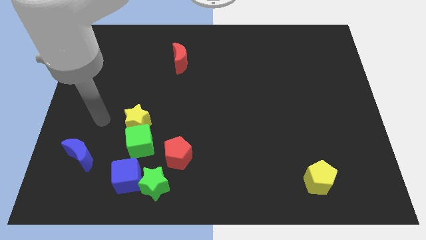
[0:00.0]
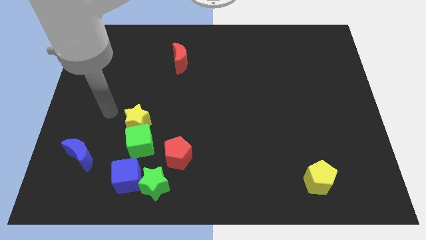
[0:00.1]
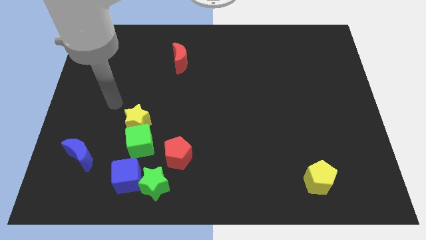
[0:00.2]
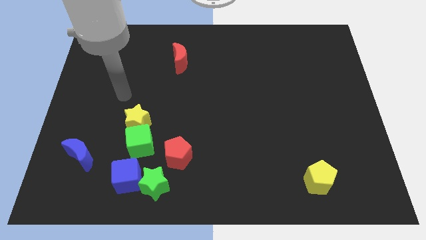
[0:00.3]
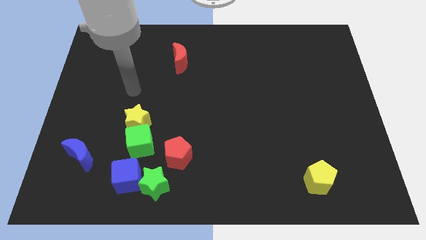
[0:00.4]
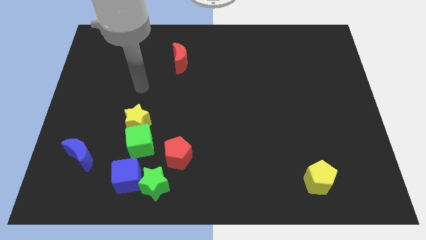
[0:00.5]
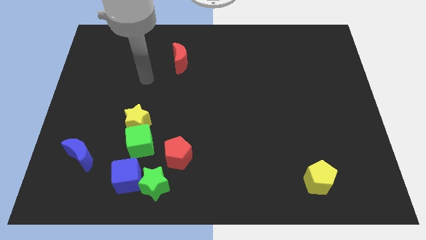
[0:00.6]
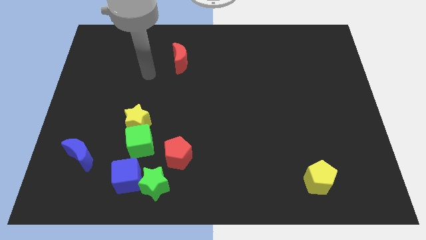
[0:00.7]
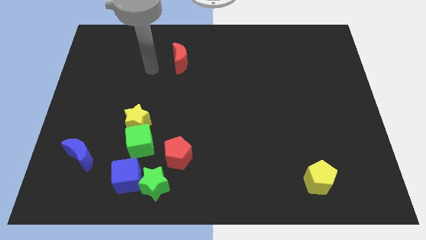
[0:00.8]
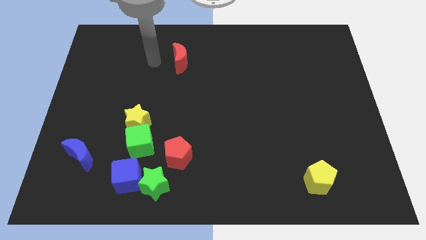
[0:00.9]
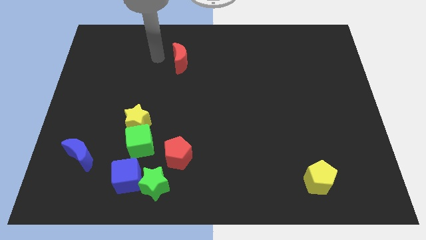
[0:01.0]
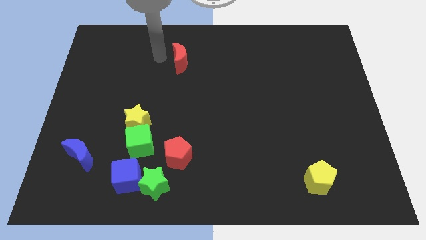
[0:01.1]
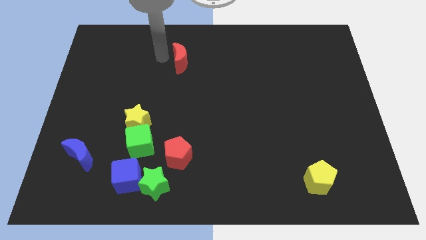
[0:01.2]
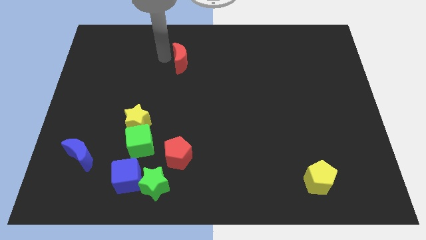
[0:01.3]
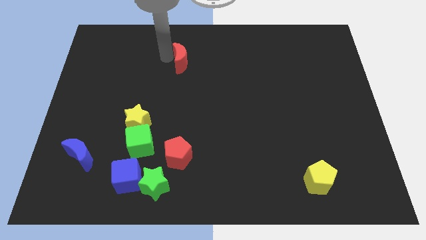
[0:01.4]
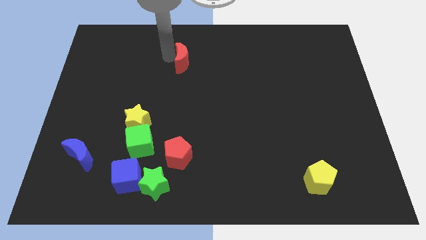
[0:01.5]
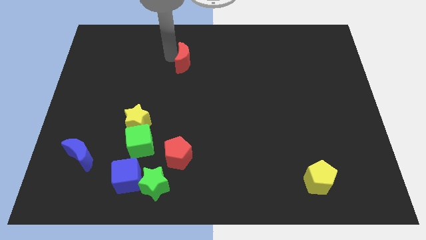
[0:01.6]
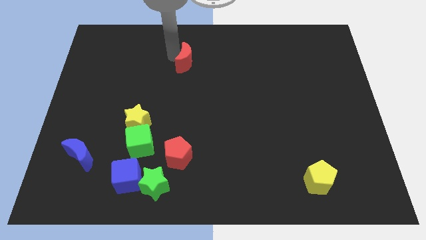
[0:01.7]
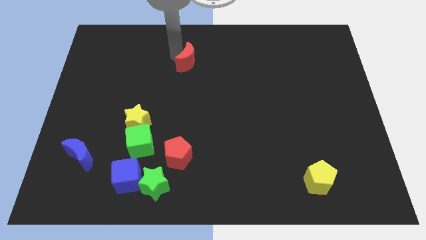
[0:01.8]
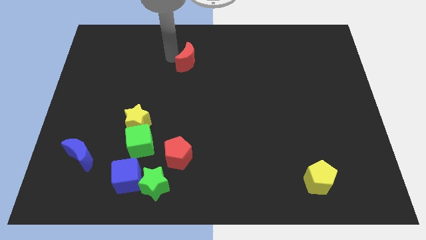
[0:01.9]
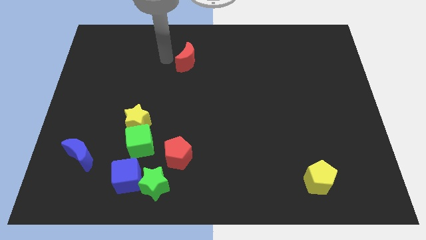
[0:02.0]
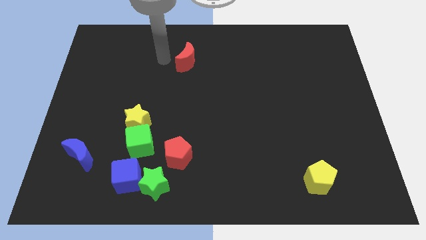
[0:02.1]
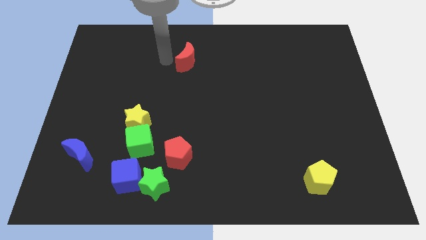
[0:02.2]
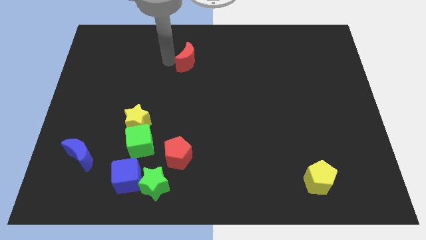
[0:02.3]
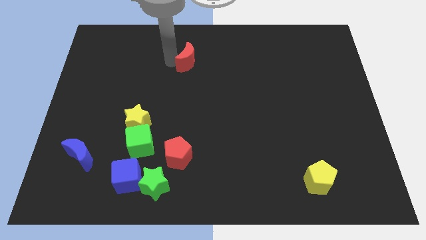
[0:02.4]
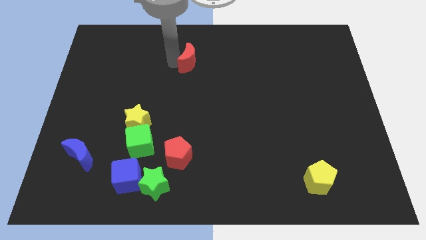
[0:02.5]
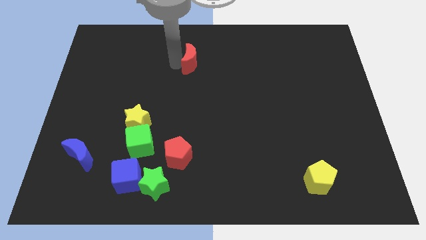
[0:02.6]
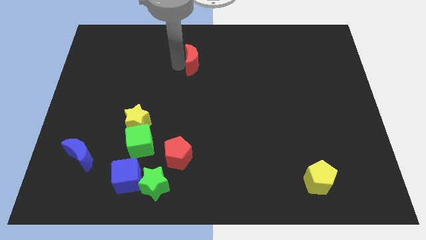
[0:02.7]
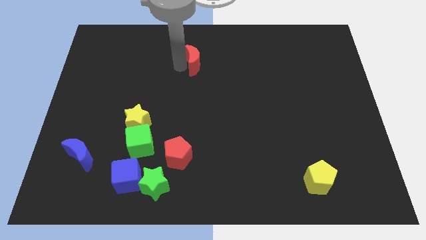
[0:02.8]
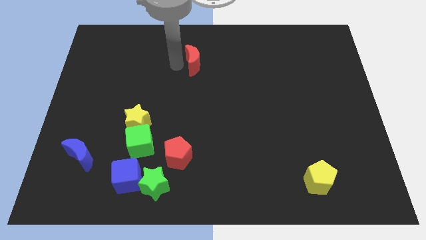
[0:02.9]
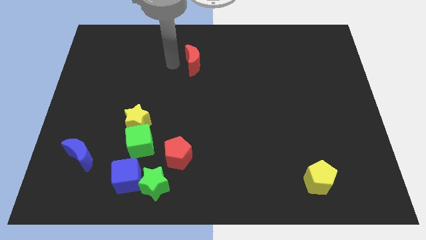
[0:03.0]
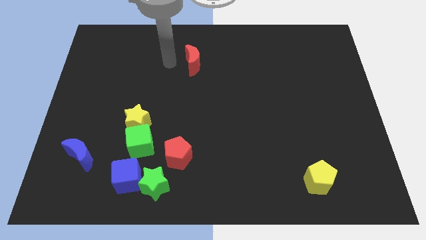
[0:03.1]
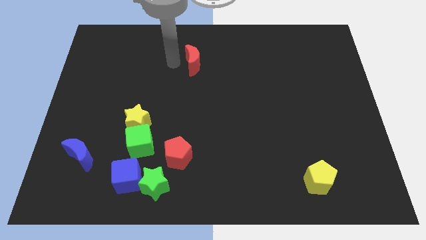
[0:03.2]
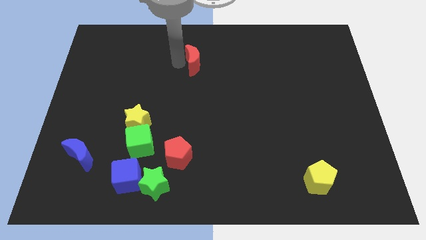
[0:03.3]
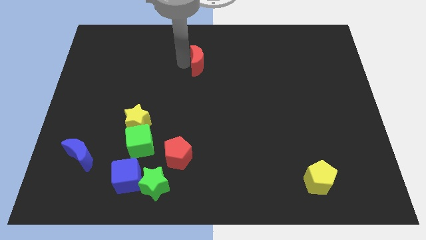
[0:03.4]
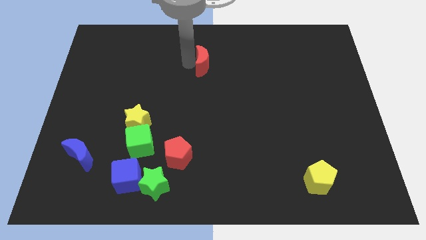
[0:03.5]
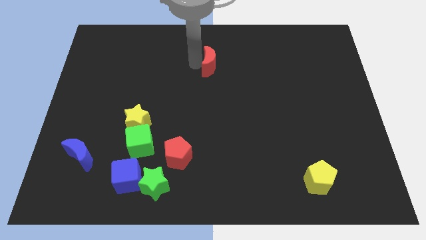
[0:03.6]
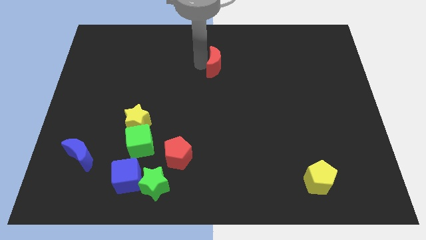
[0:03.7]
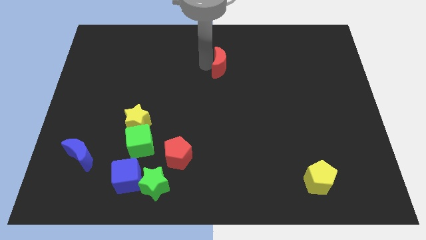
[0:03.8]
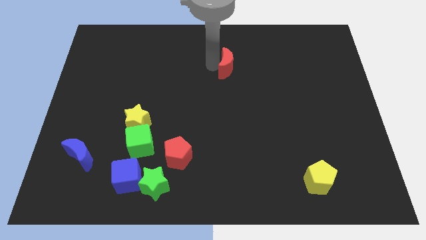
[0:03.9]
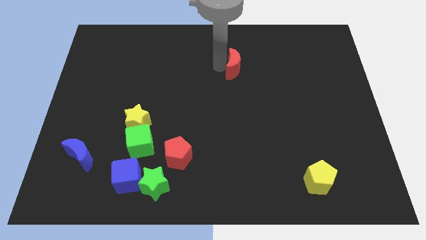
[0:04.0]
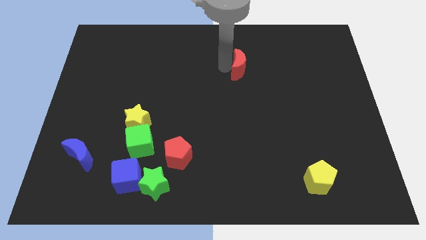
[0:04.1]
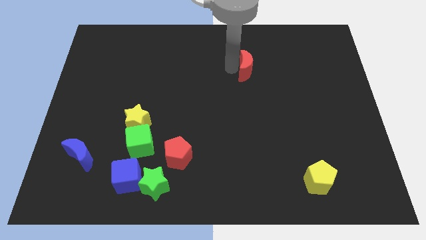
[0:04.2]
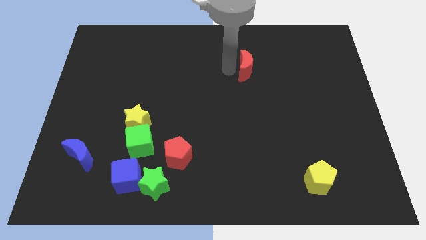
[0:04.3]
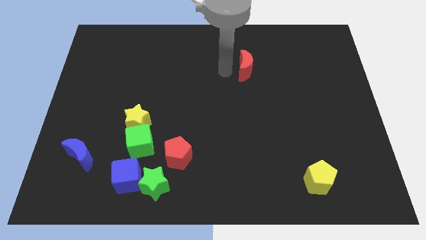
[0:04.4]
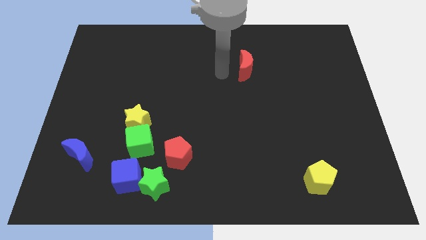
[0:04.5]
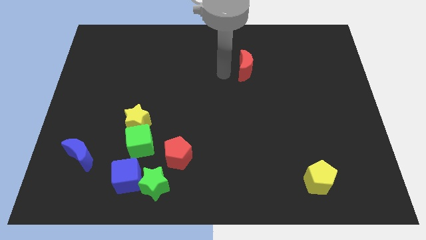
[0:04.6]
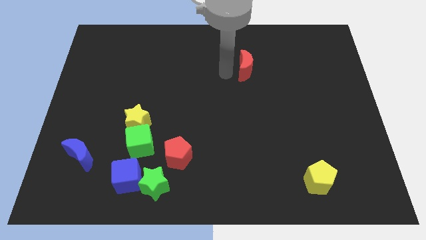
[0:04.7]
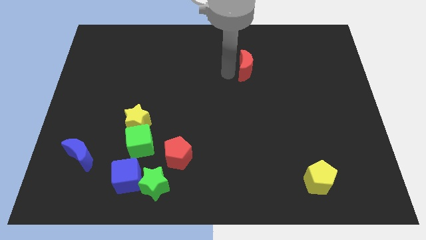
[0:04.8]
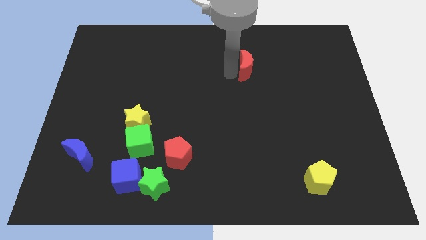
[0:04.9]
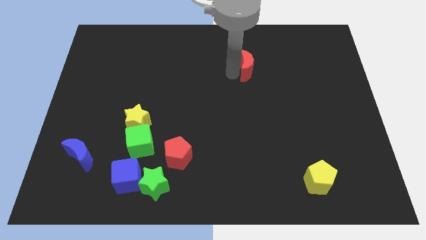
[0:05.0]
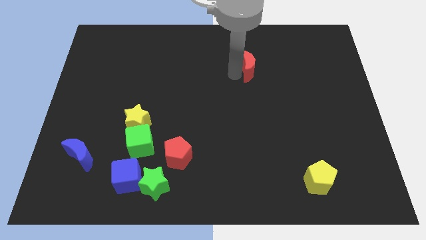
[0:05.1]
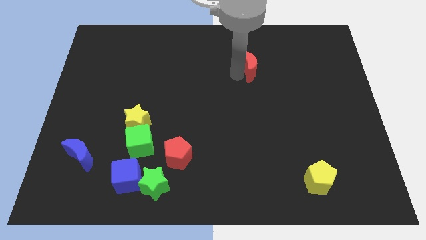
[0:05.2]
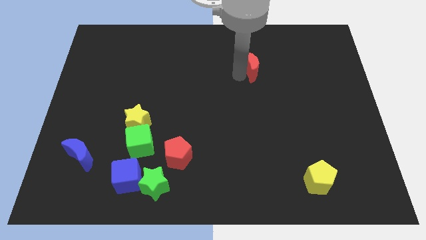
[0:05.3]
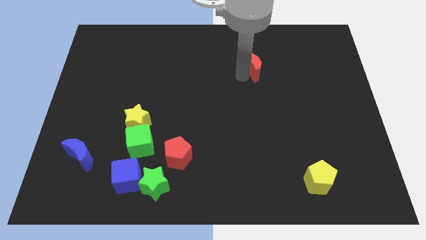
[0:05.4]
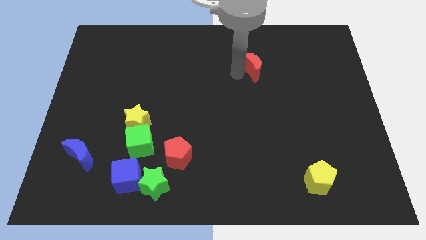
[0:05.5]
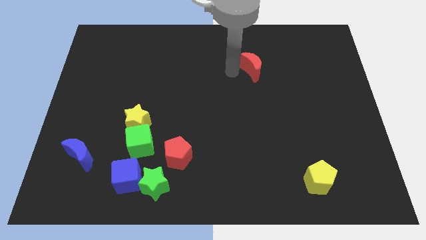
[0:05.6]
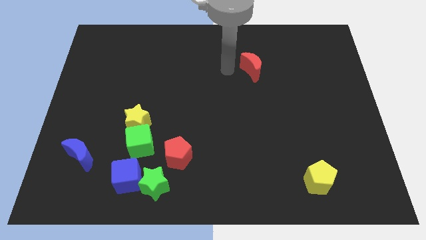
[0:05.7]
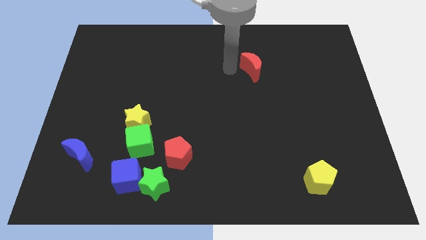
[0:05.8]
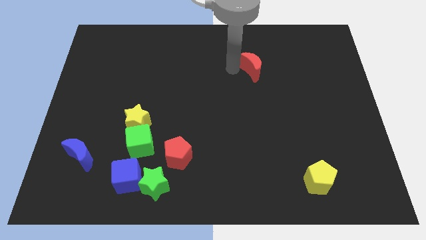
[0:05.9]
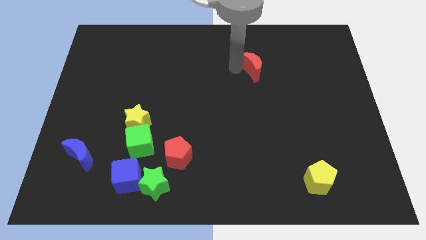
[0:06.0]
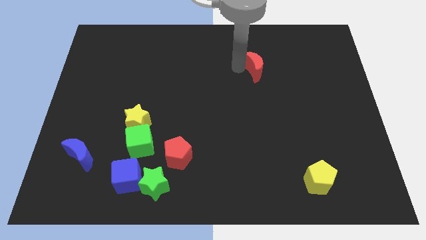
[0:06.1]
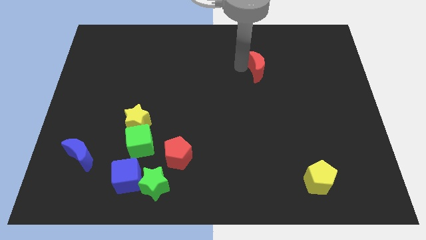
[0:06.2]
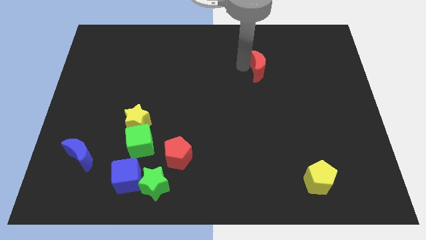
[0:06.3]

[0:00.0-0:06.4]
slide the red moon right

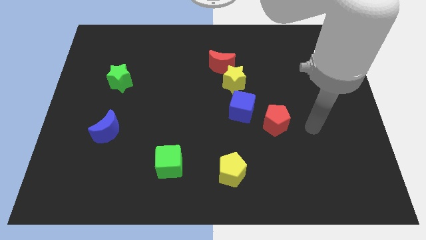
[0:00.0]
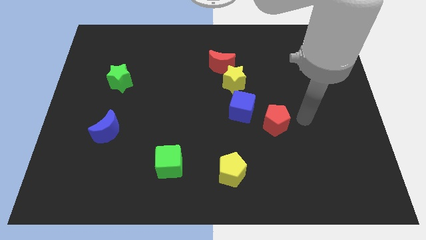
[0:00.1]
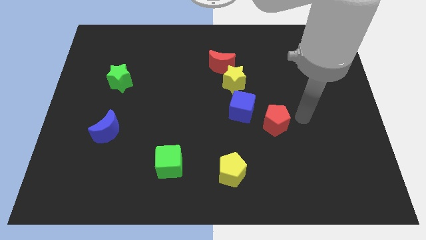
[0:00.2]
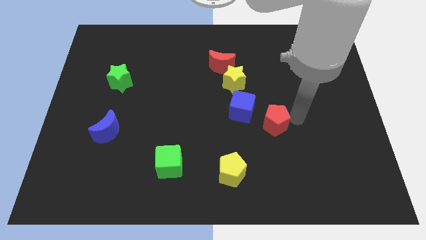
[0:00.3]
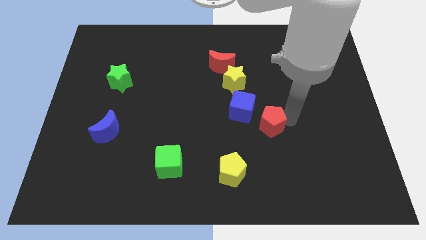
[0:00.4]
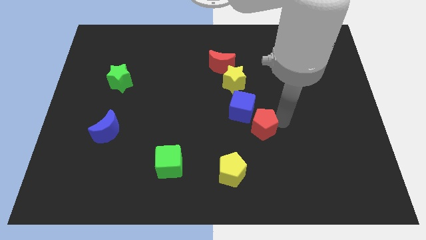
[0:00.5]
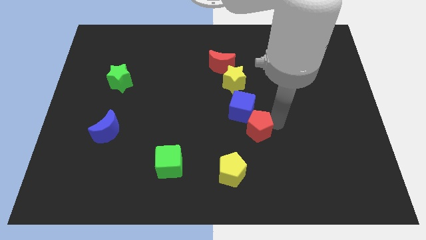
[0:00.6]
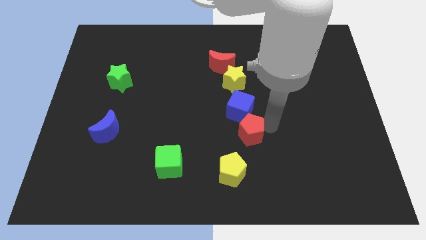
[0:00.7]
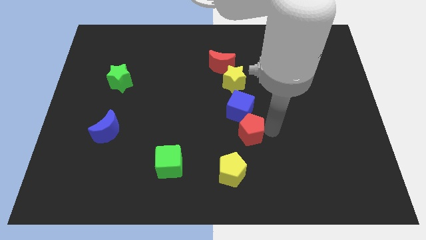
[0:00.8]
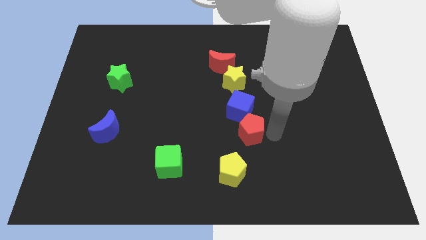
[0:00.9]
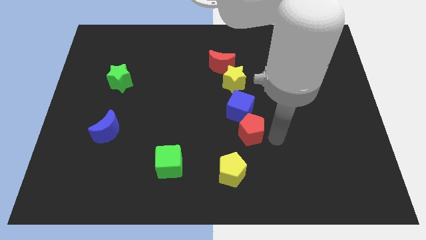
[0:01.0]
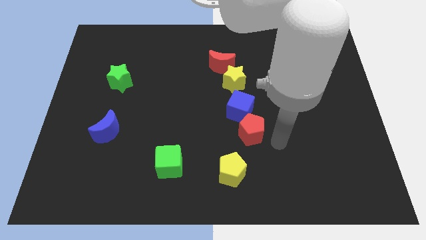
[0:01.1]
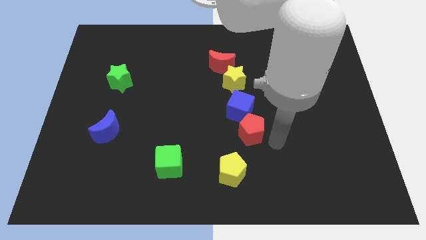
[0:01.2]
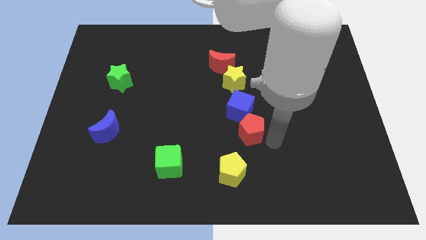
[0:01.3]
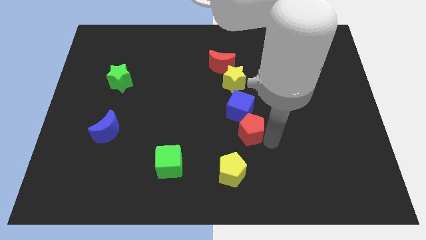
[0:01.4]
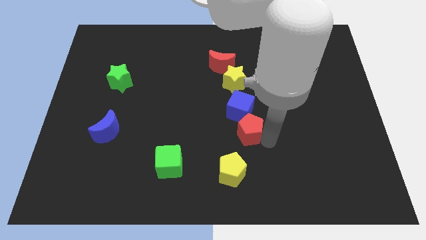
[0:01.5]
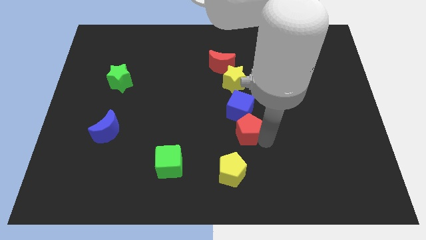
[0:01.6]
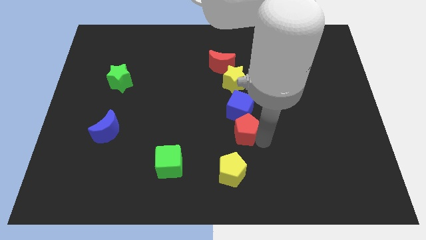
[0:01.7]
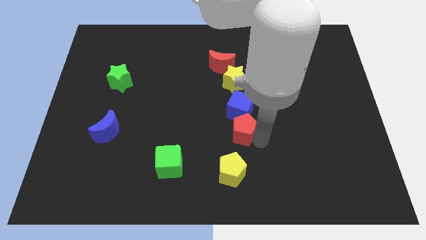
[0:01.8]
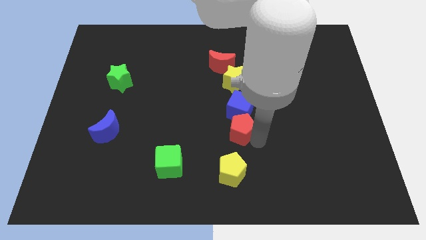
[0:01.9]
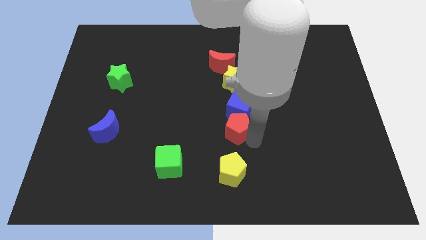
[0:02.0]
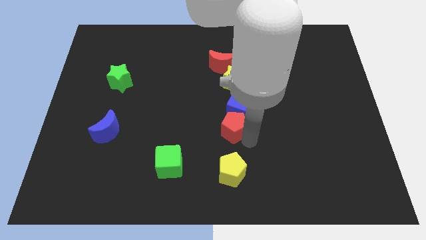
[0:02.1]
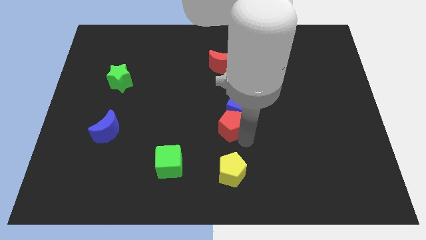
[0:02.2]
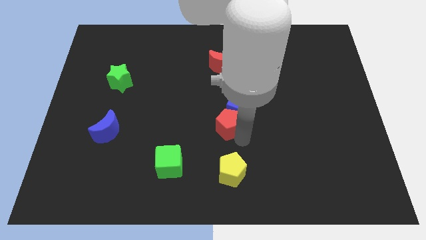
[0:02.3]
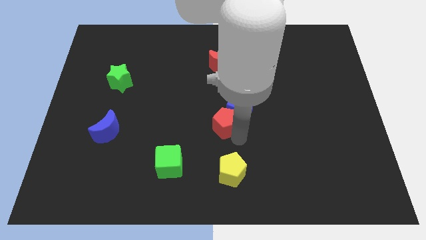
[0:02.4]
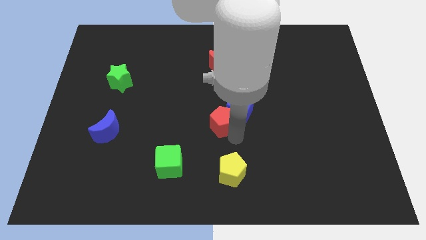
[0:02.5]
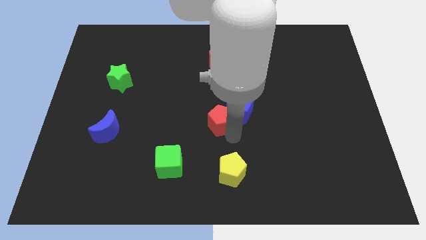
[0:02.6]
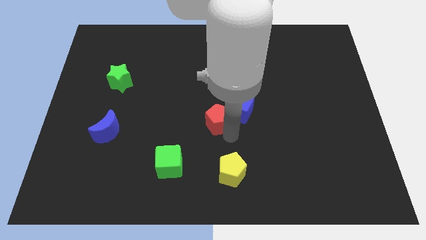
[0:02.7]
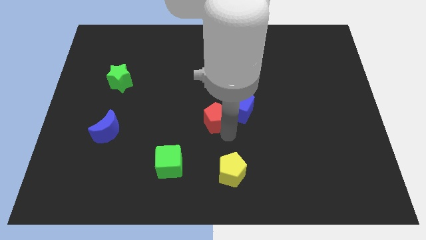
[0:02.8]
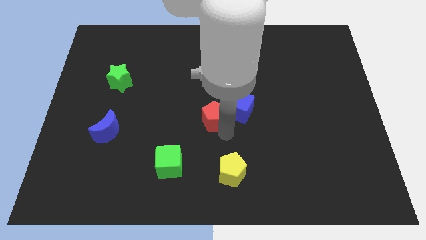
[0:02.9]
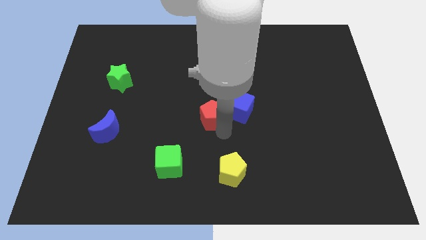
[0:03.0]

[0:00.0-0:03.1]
slightly slide the red pentagon upwards and left diagonally
